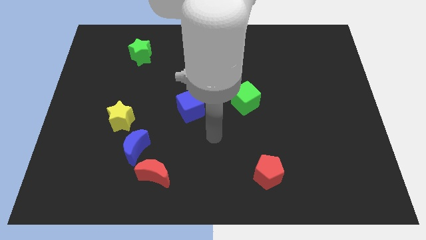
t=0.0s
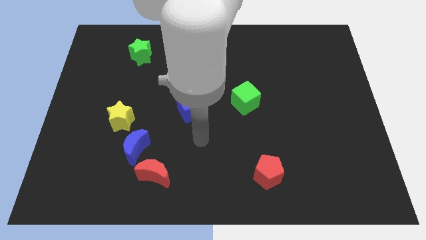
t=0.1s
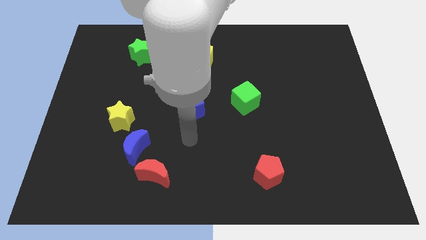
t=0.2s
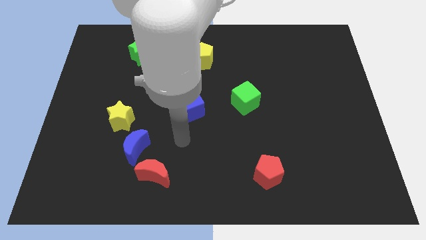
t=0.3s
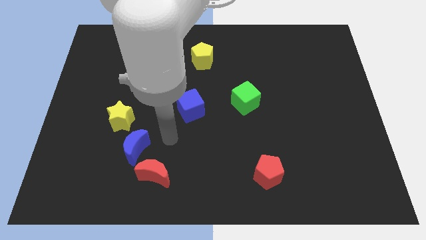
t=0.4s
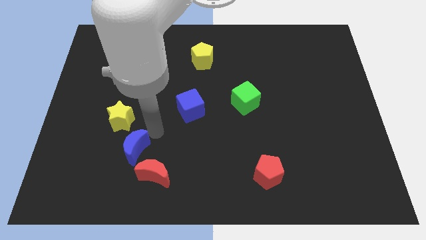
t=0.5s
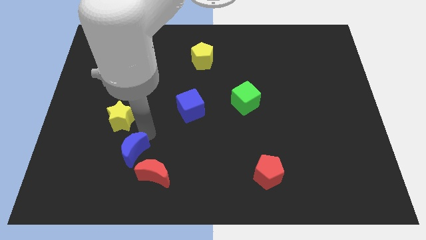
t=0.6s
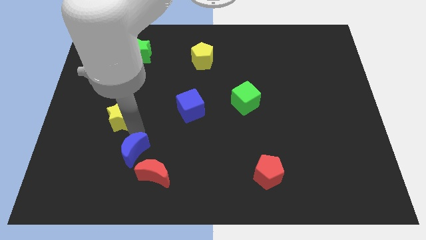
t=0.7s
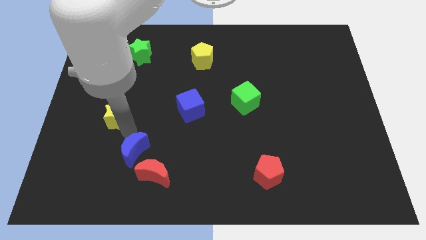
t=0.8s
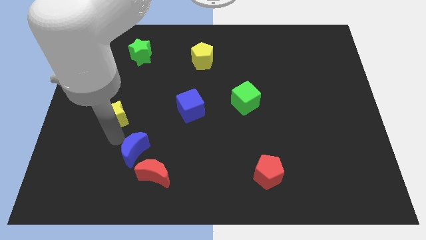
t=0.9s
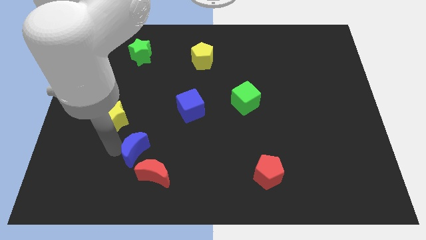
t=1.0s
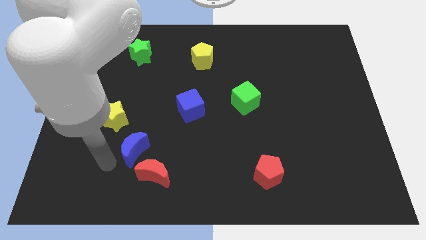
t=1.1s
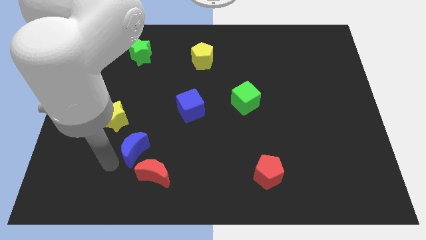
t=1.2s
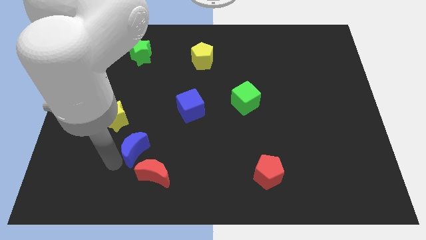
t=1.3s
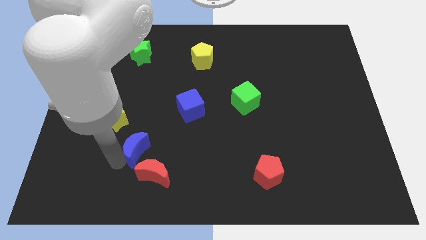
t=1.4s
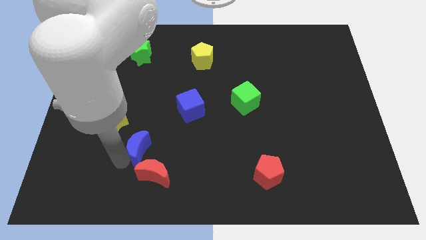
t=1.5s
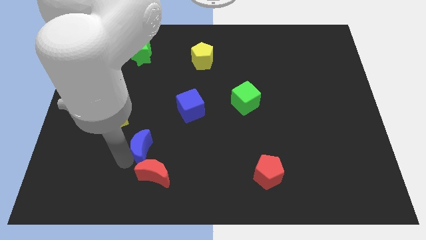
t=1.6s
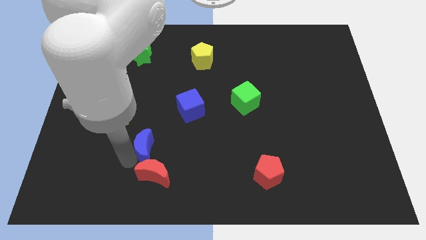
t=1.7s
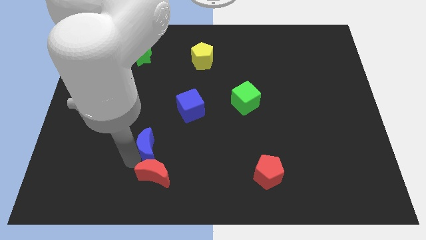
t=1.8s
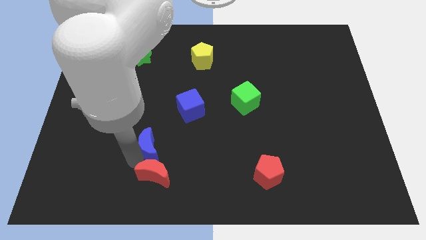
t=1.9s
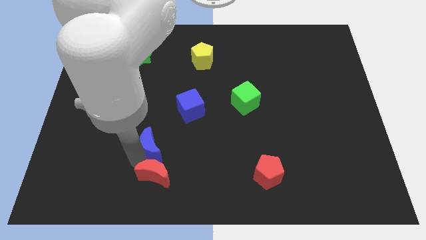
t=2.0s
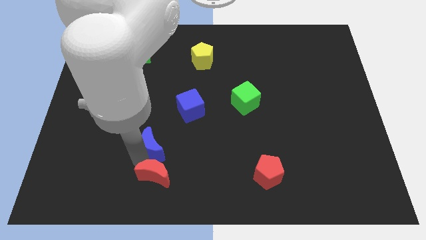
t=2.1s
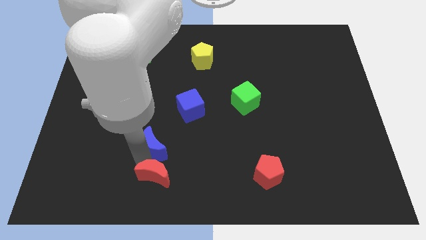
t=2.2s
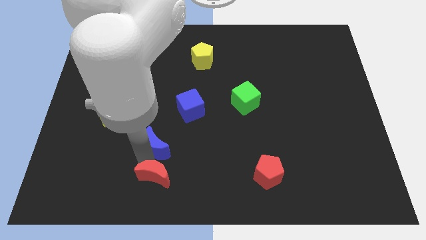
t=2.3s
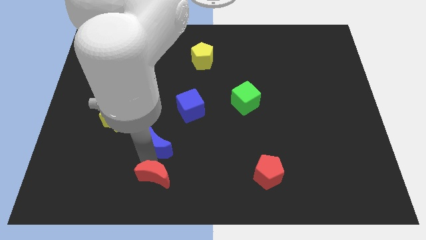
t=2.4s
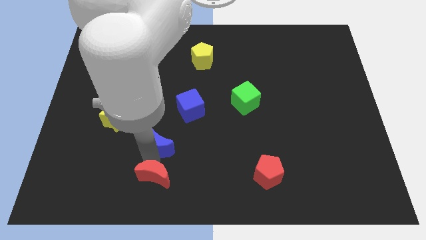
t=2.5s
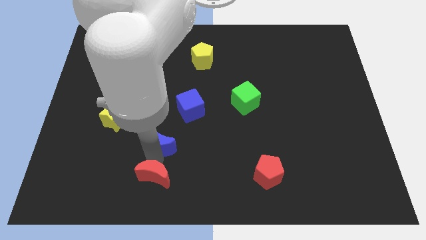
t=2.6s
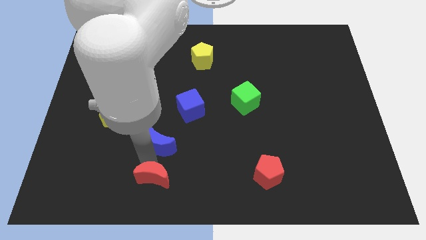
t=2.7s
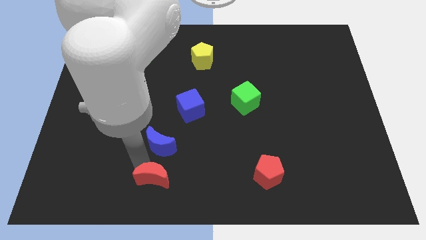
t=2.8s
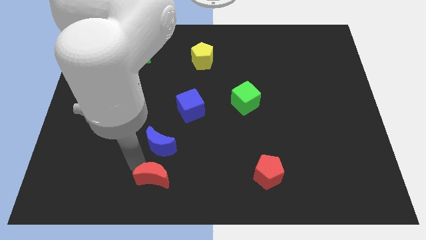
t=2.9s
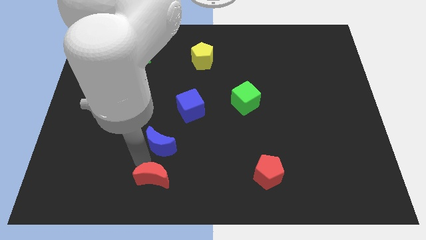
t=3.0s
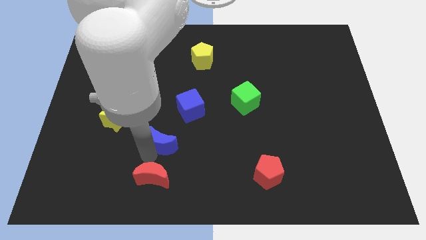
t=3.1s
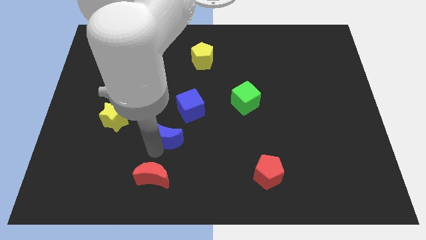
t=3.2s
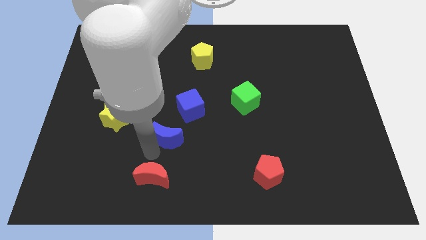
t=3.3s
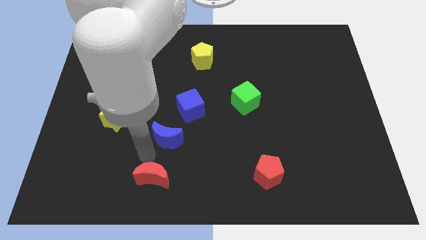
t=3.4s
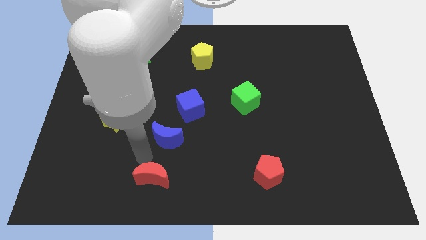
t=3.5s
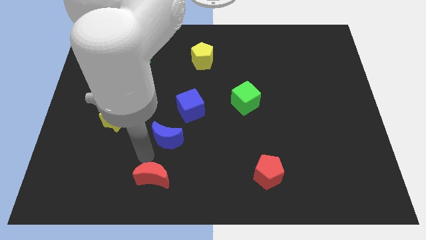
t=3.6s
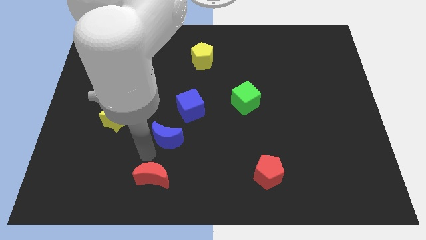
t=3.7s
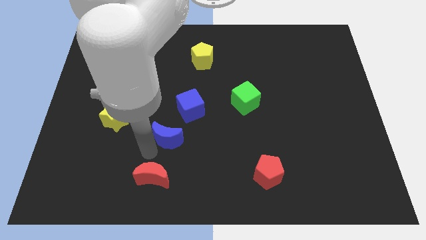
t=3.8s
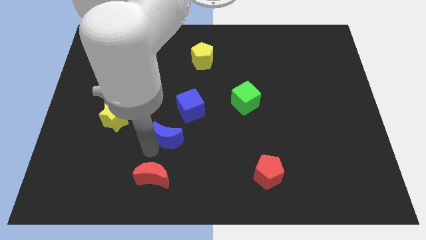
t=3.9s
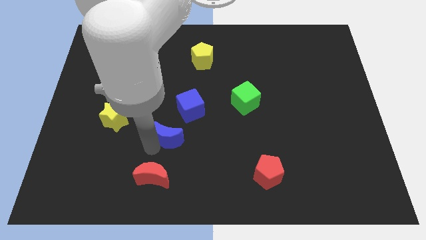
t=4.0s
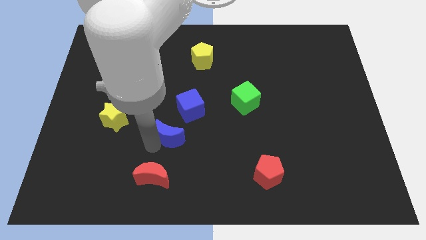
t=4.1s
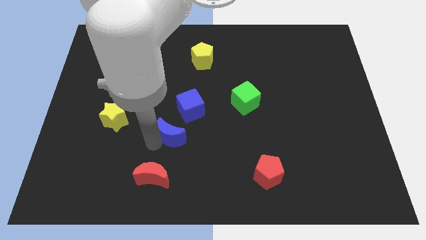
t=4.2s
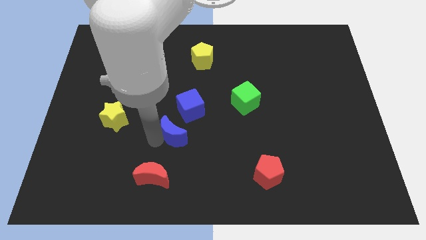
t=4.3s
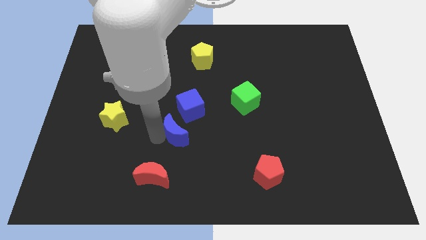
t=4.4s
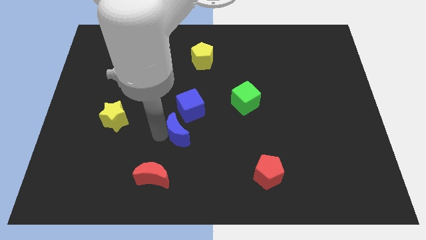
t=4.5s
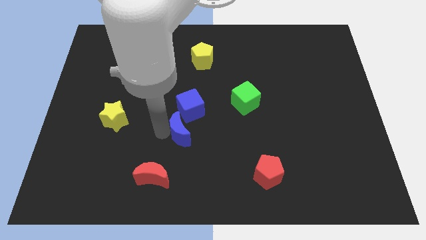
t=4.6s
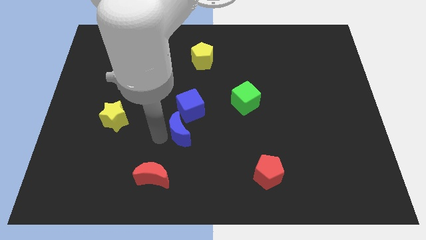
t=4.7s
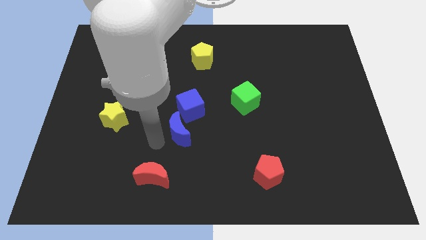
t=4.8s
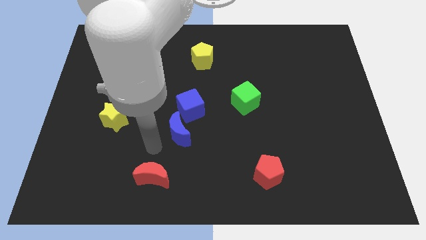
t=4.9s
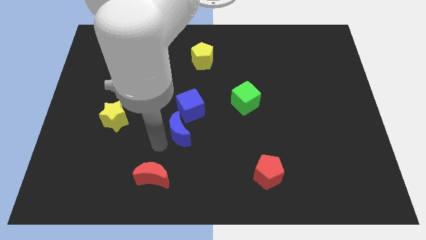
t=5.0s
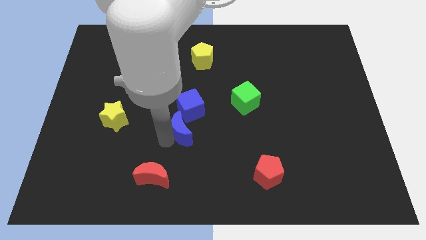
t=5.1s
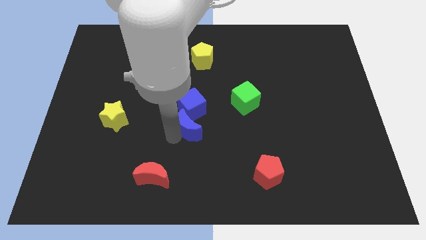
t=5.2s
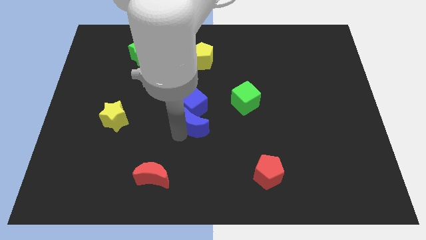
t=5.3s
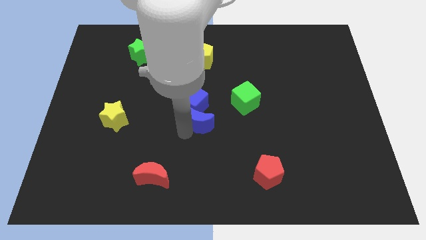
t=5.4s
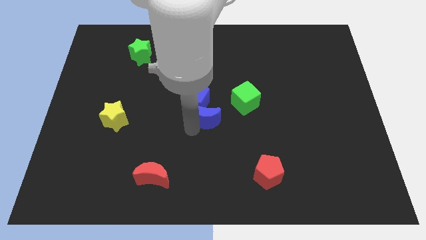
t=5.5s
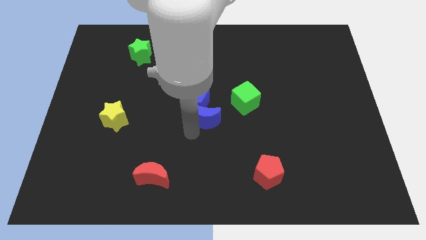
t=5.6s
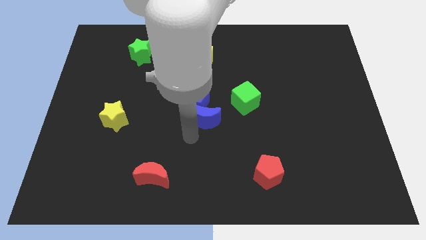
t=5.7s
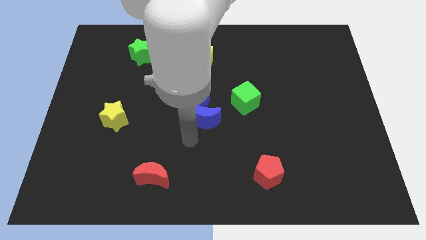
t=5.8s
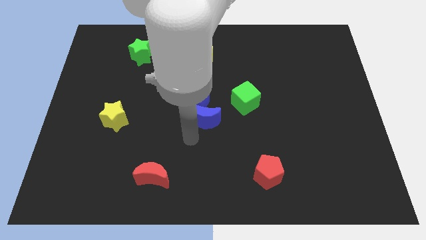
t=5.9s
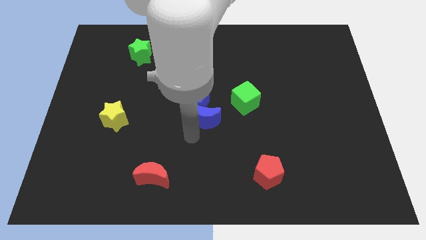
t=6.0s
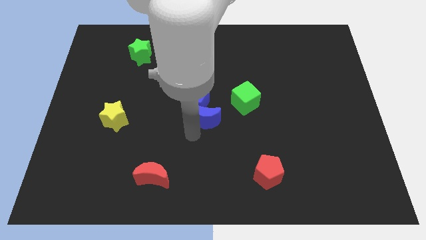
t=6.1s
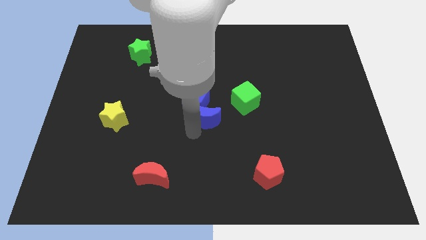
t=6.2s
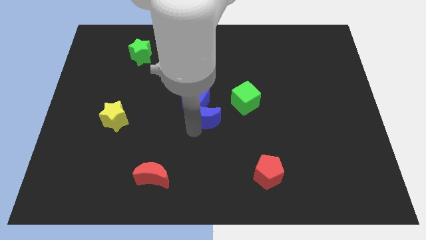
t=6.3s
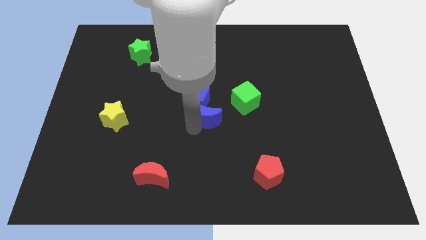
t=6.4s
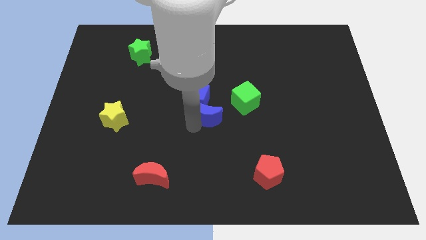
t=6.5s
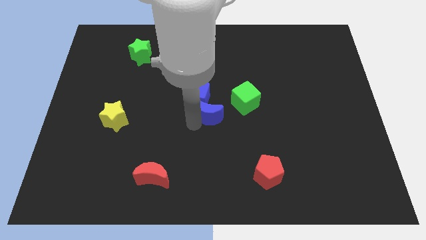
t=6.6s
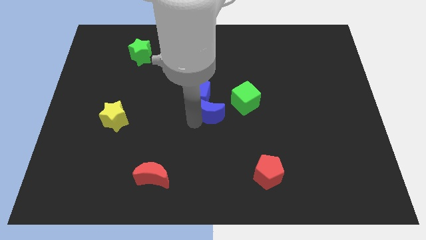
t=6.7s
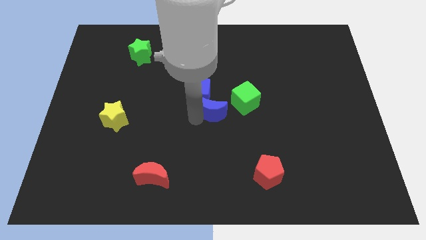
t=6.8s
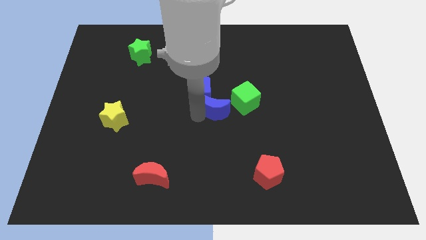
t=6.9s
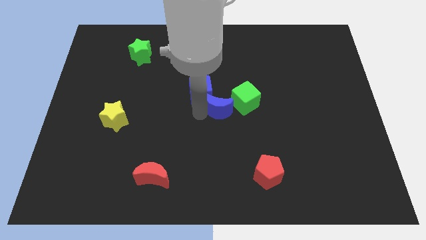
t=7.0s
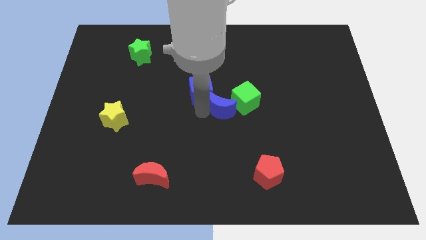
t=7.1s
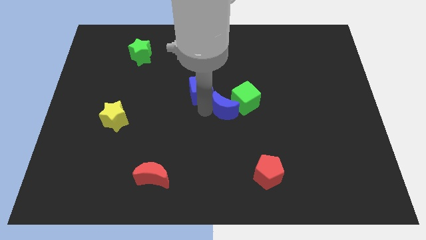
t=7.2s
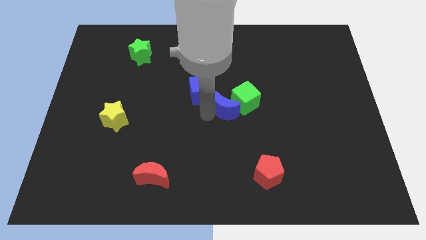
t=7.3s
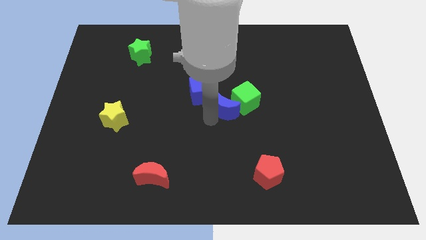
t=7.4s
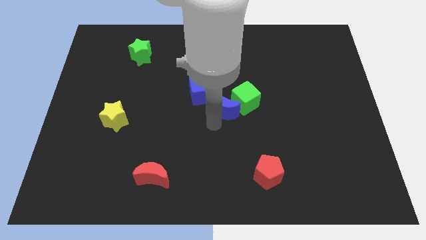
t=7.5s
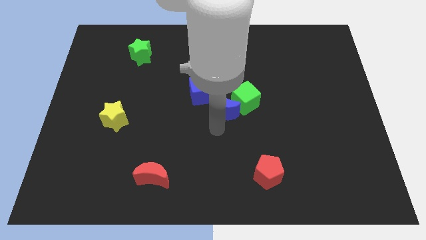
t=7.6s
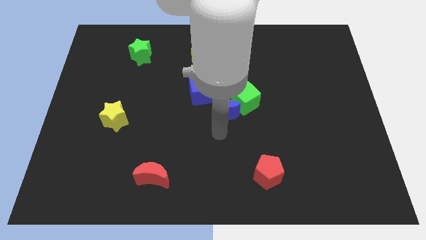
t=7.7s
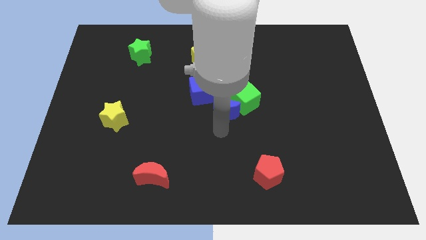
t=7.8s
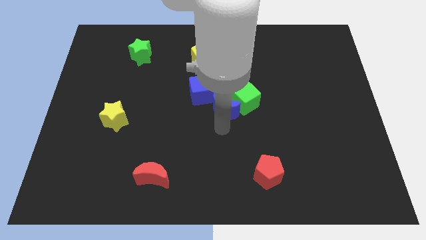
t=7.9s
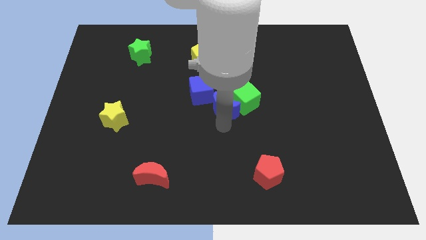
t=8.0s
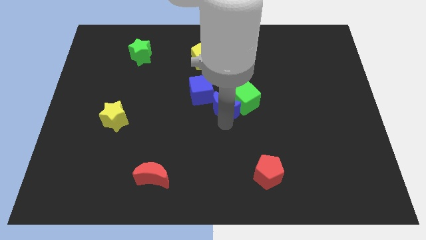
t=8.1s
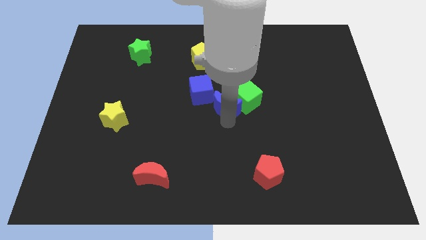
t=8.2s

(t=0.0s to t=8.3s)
push the blue moon upwards and right
